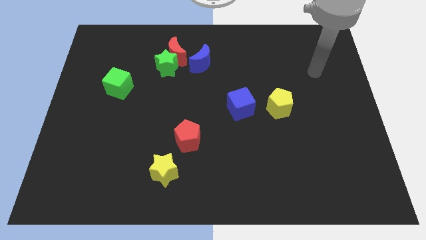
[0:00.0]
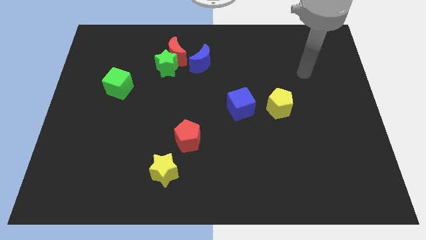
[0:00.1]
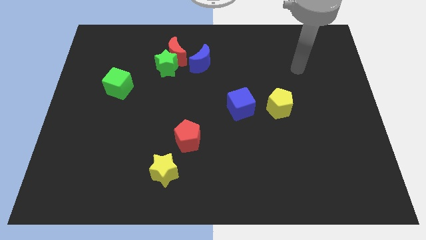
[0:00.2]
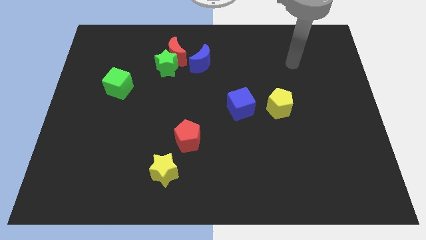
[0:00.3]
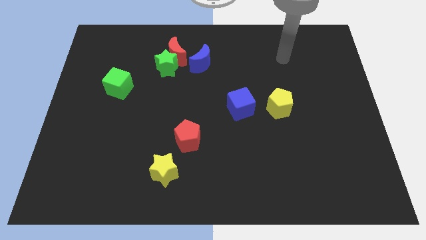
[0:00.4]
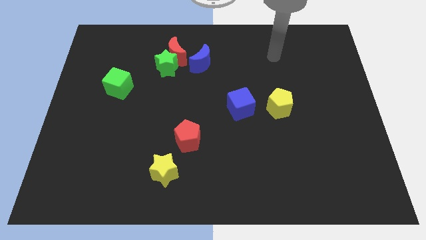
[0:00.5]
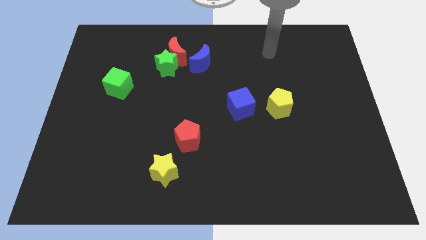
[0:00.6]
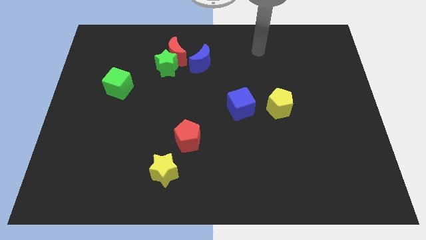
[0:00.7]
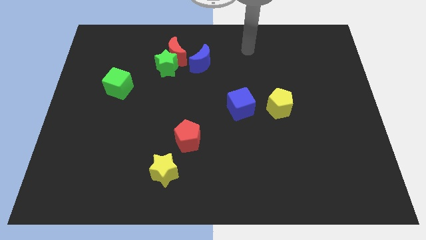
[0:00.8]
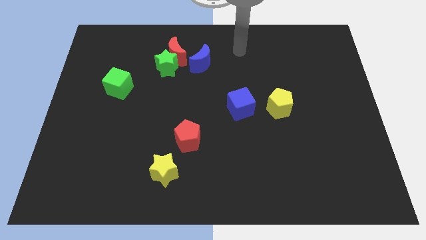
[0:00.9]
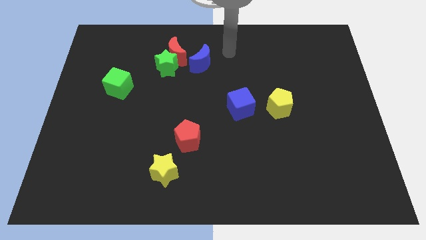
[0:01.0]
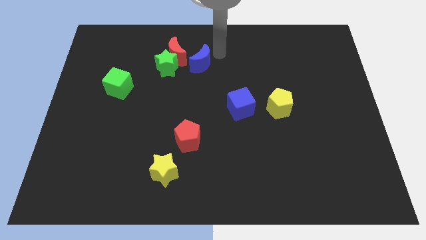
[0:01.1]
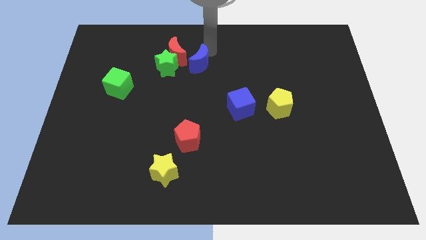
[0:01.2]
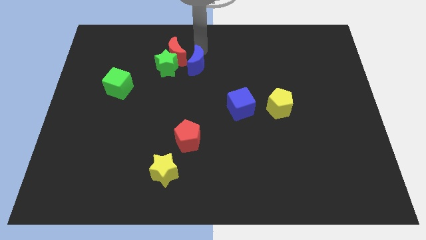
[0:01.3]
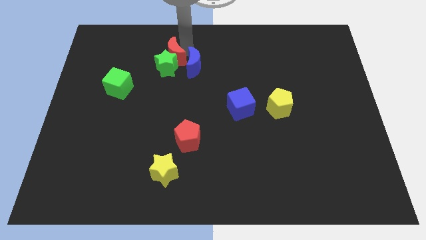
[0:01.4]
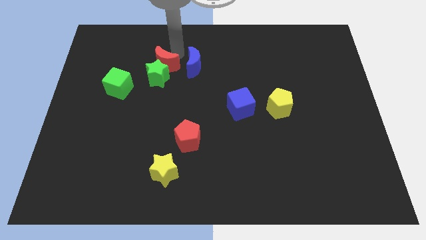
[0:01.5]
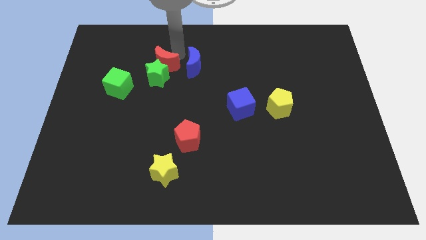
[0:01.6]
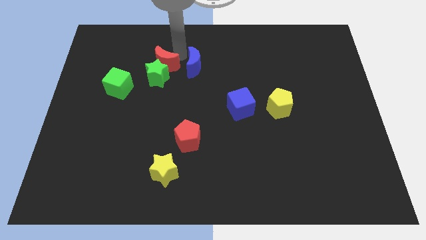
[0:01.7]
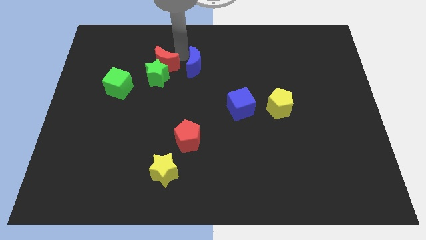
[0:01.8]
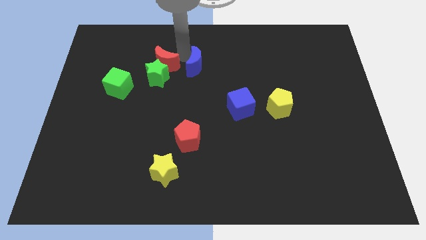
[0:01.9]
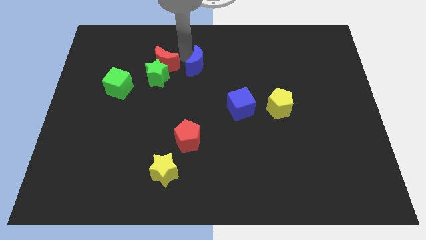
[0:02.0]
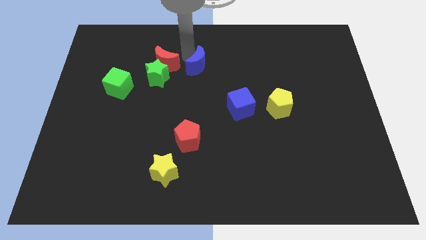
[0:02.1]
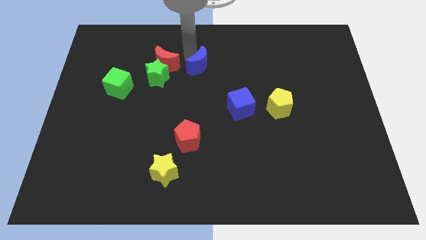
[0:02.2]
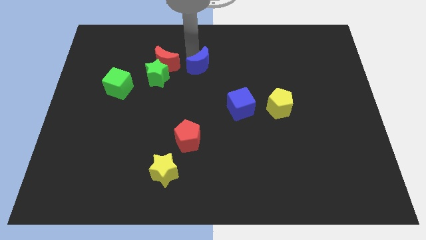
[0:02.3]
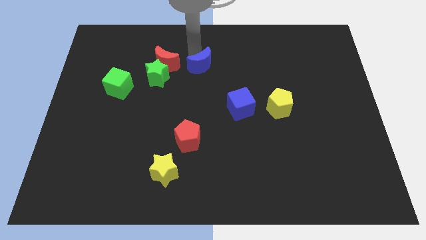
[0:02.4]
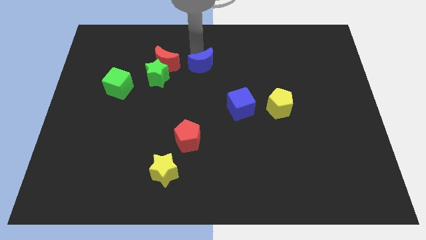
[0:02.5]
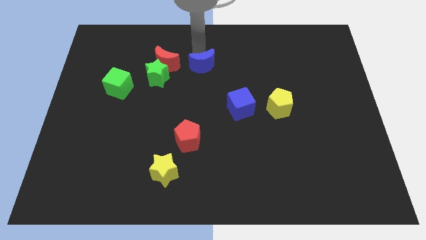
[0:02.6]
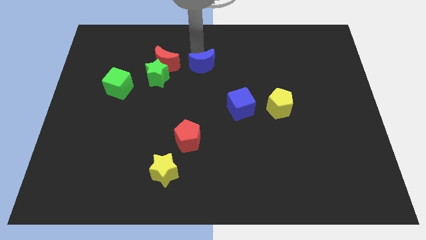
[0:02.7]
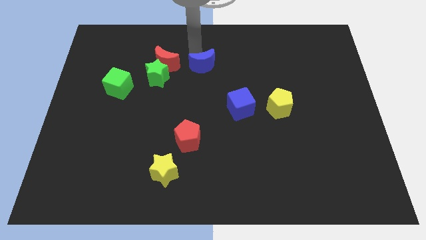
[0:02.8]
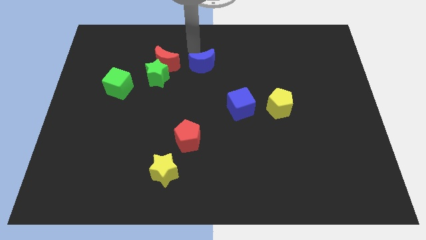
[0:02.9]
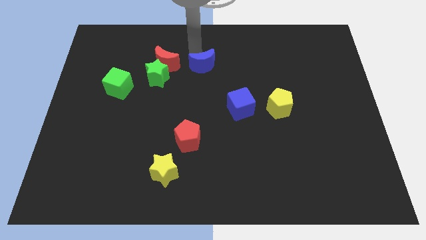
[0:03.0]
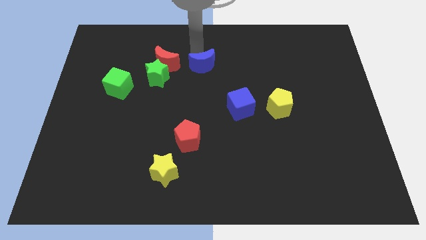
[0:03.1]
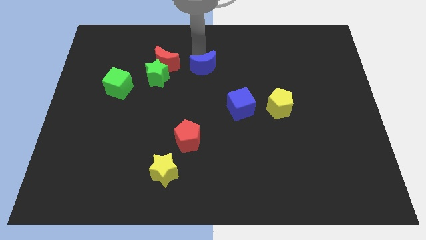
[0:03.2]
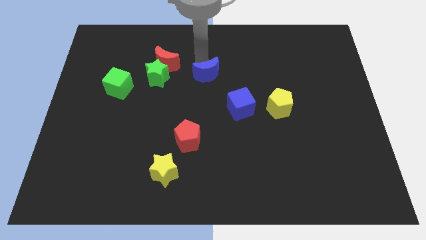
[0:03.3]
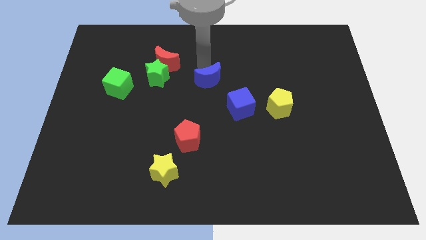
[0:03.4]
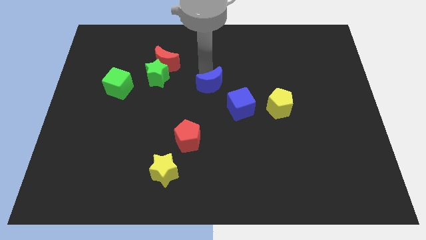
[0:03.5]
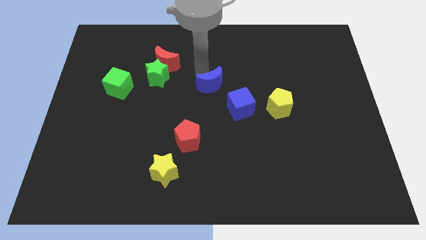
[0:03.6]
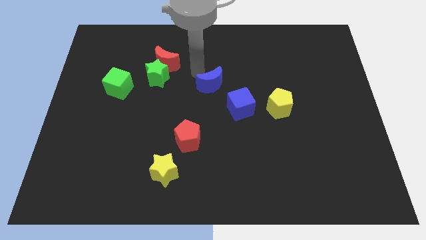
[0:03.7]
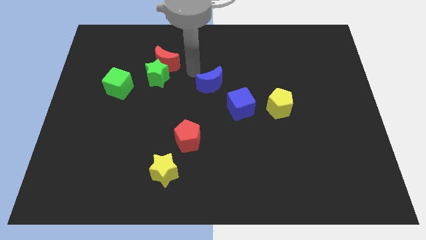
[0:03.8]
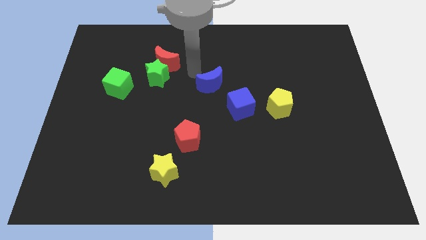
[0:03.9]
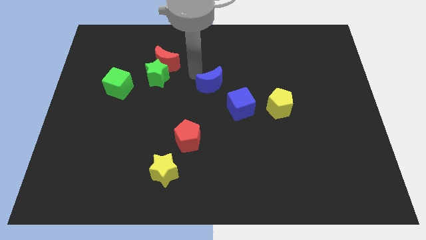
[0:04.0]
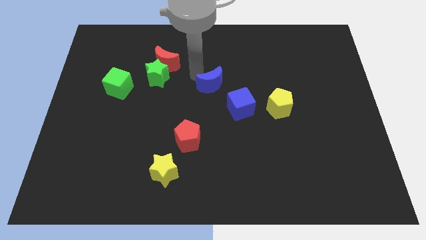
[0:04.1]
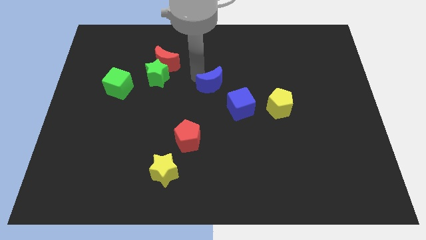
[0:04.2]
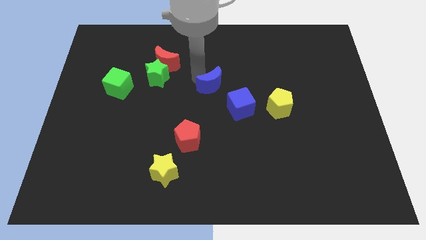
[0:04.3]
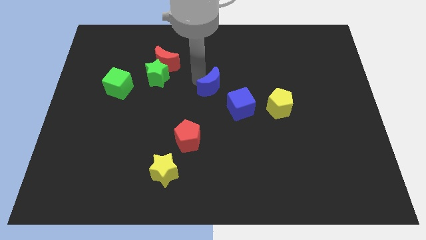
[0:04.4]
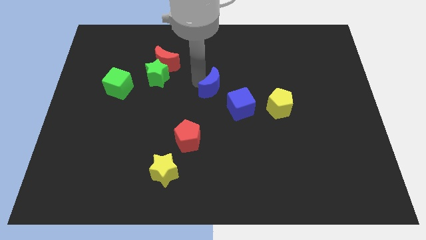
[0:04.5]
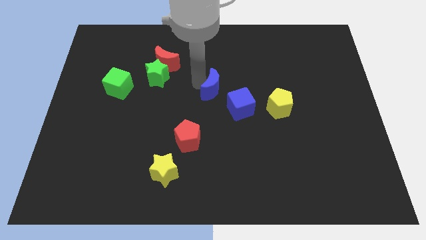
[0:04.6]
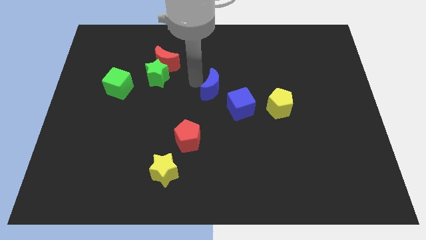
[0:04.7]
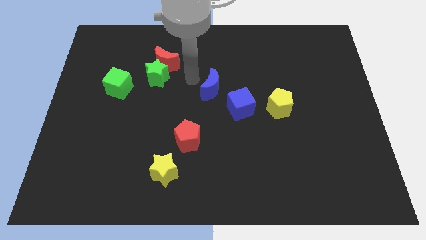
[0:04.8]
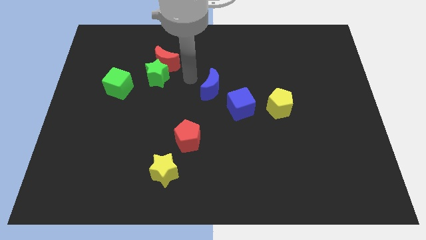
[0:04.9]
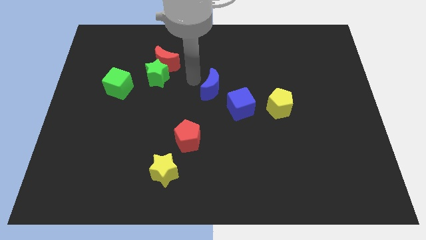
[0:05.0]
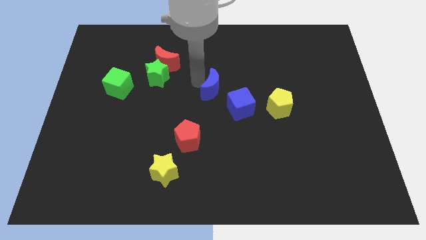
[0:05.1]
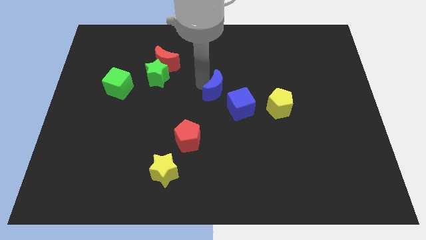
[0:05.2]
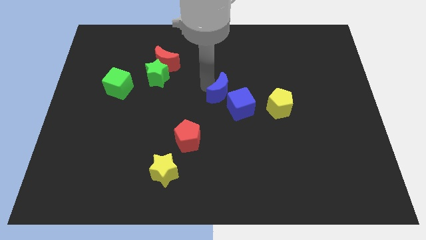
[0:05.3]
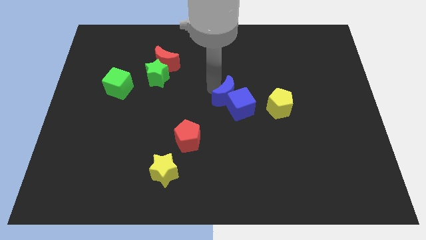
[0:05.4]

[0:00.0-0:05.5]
push the blue moon towards the blue cube

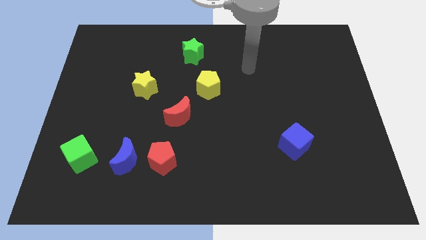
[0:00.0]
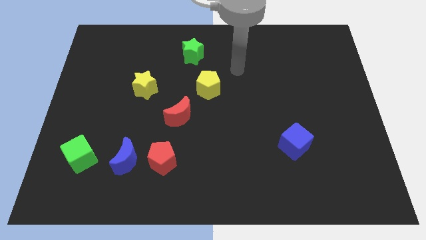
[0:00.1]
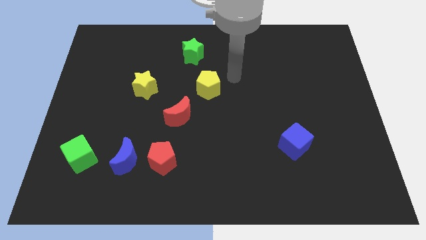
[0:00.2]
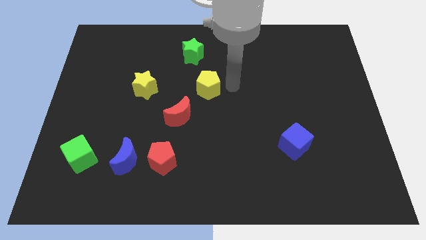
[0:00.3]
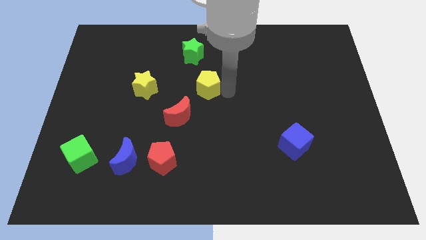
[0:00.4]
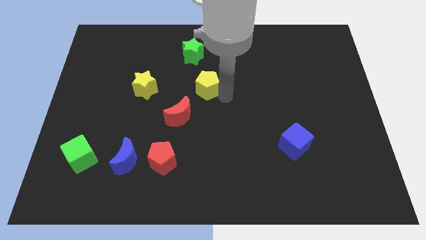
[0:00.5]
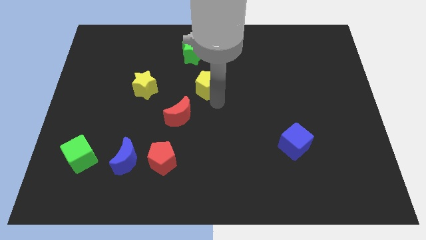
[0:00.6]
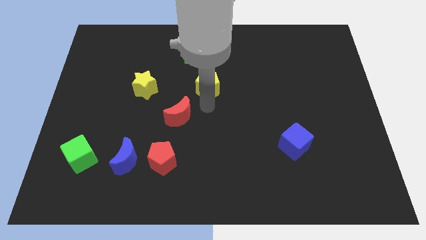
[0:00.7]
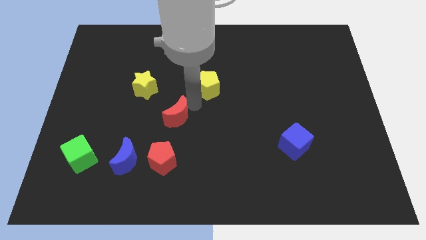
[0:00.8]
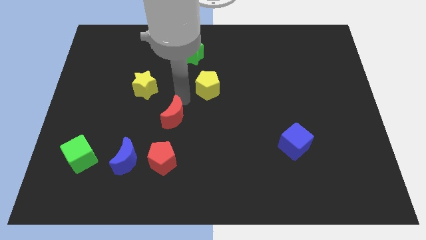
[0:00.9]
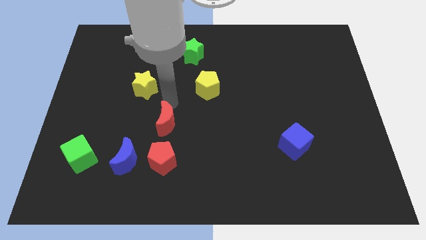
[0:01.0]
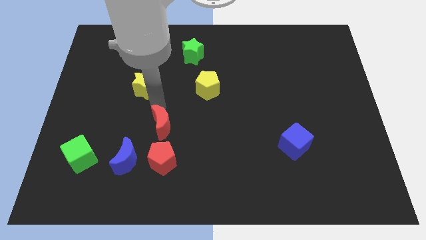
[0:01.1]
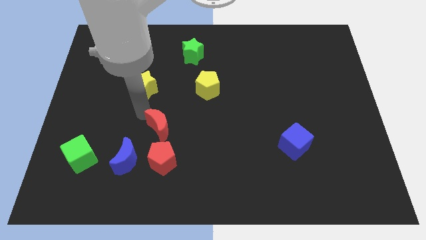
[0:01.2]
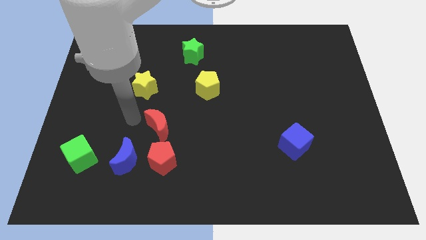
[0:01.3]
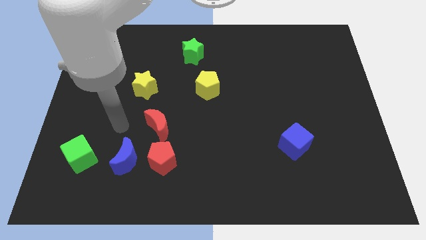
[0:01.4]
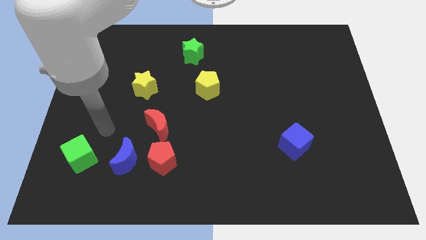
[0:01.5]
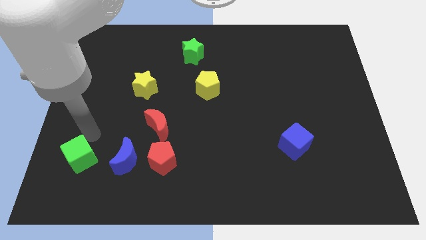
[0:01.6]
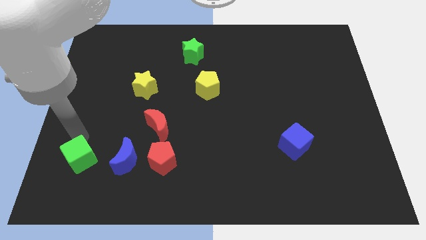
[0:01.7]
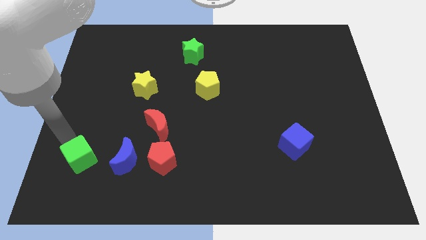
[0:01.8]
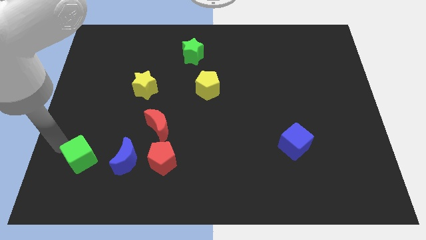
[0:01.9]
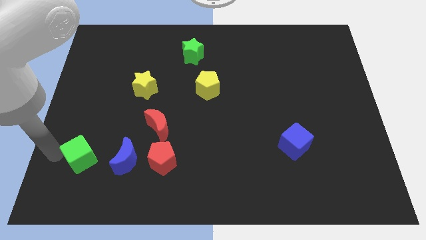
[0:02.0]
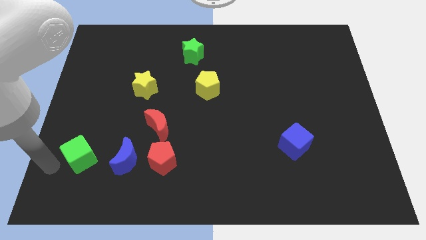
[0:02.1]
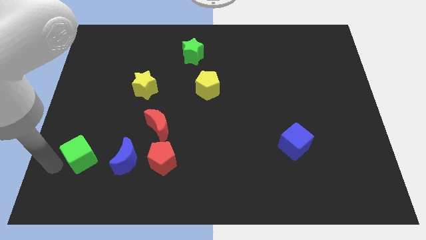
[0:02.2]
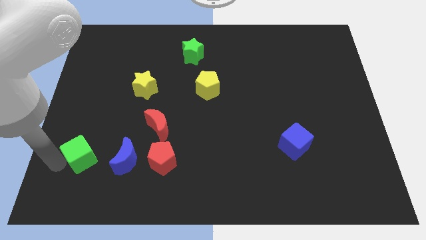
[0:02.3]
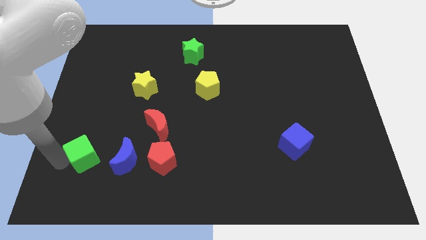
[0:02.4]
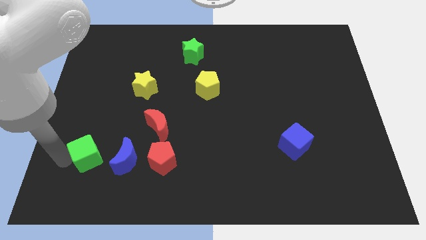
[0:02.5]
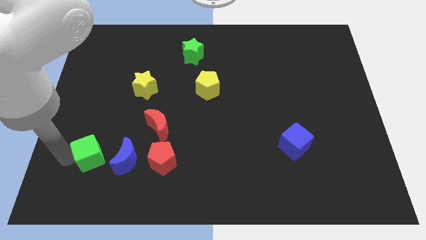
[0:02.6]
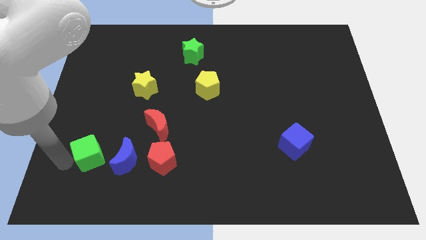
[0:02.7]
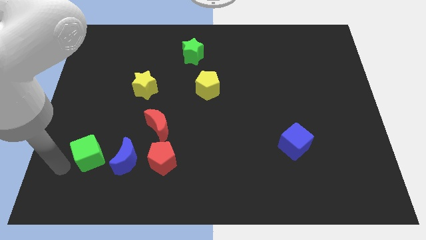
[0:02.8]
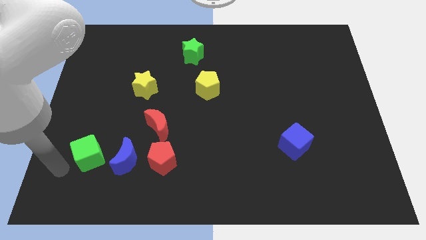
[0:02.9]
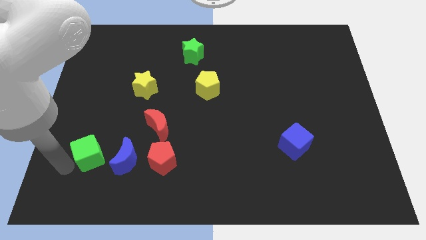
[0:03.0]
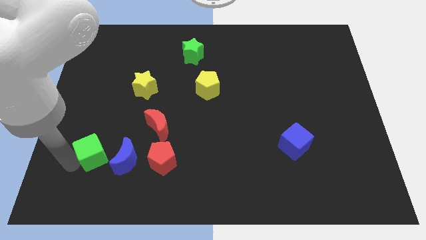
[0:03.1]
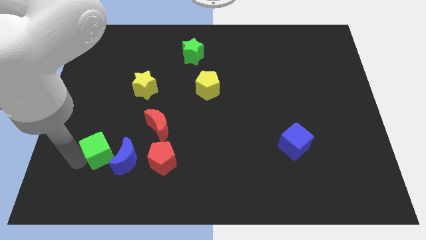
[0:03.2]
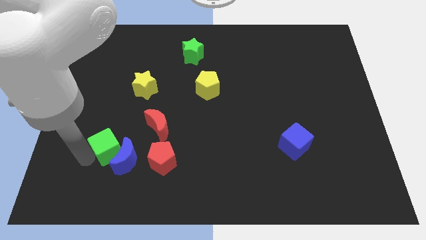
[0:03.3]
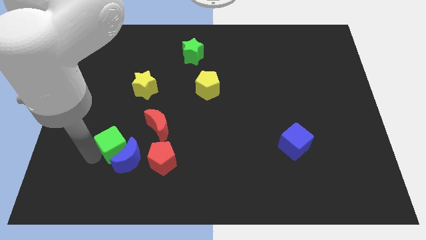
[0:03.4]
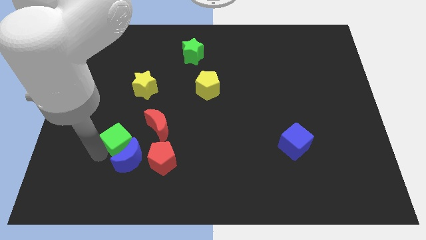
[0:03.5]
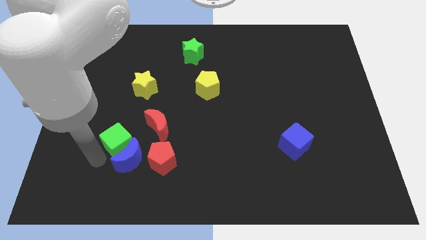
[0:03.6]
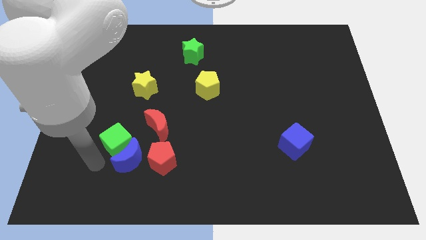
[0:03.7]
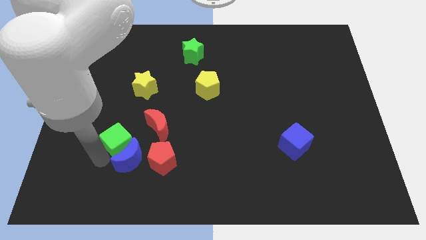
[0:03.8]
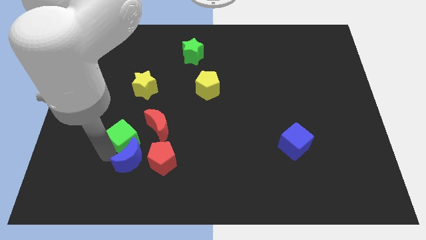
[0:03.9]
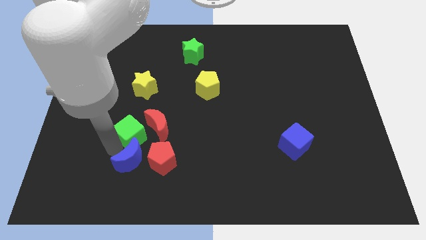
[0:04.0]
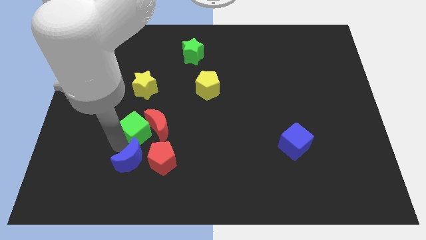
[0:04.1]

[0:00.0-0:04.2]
slide the green cube next to the red moon
